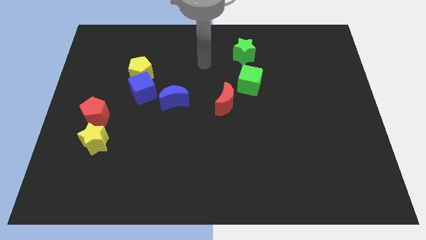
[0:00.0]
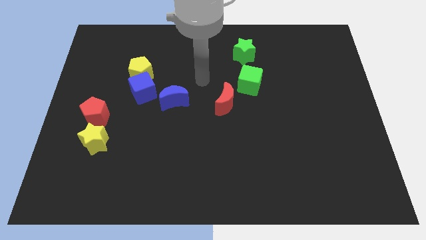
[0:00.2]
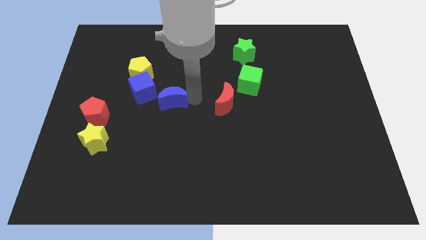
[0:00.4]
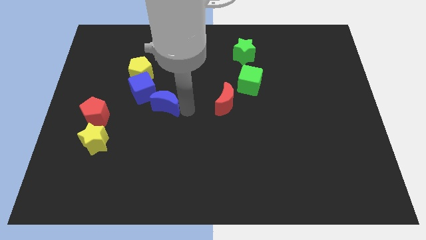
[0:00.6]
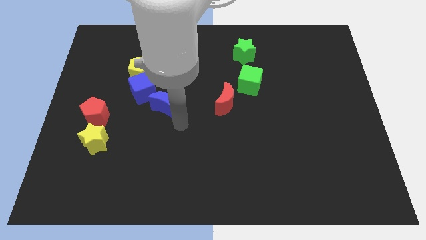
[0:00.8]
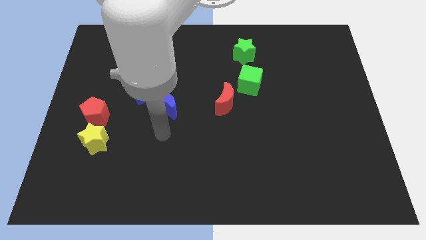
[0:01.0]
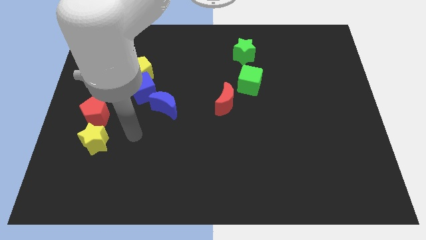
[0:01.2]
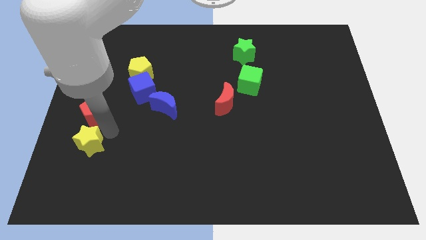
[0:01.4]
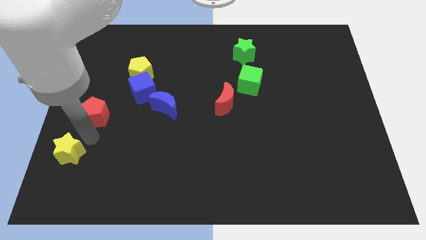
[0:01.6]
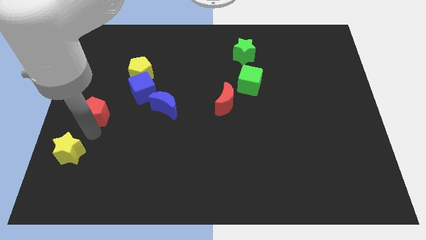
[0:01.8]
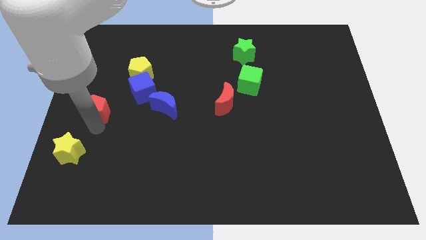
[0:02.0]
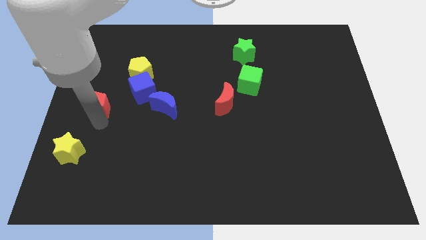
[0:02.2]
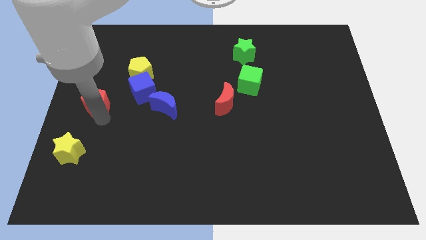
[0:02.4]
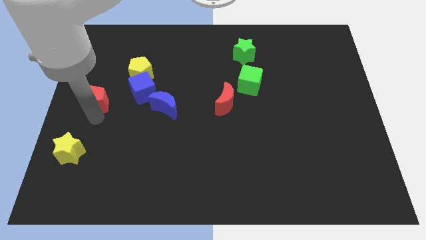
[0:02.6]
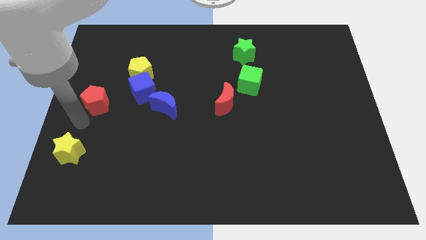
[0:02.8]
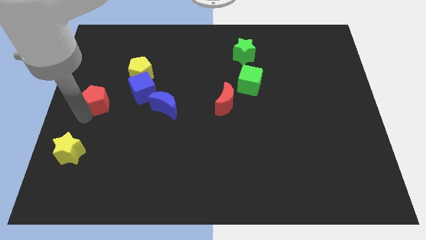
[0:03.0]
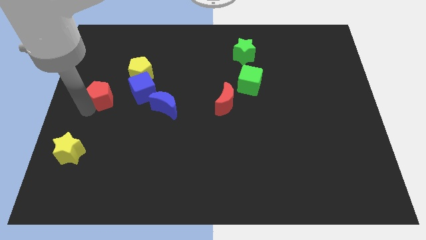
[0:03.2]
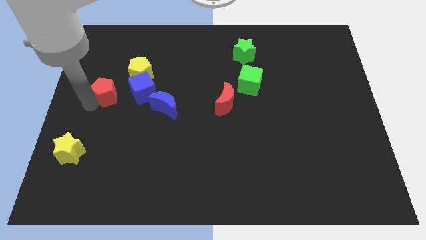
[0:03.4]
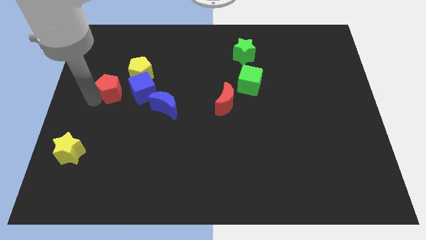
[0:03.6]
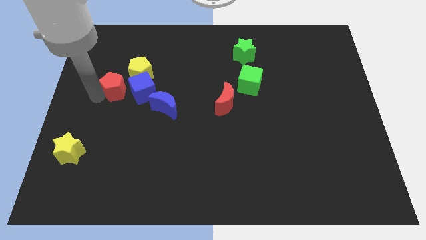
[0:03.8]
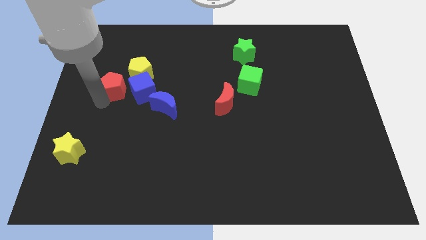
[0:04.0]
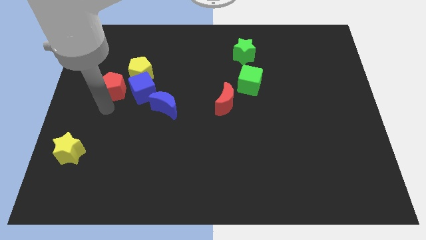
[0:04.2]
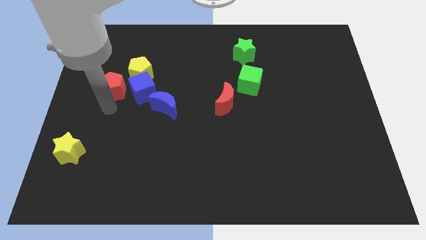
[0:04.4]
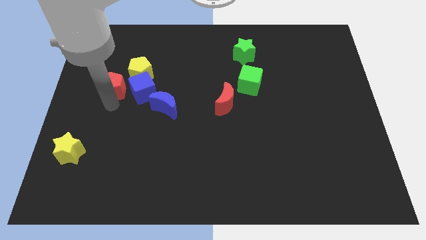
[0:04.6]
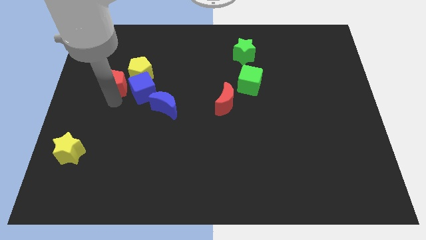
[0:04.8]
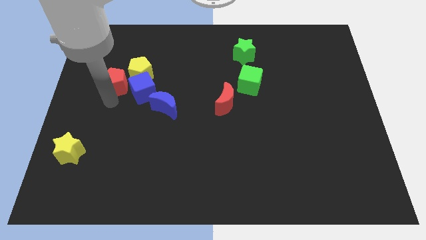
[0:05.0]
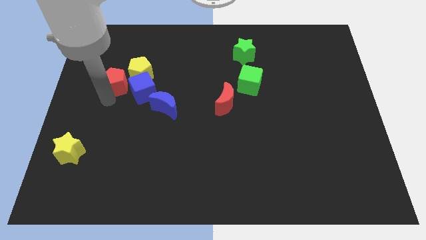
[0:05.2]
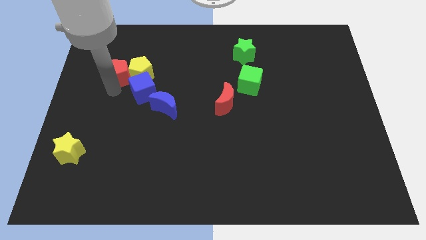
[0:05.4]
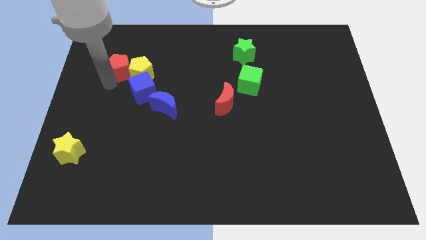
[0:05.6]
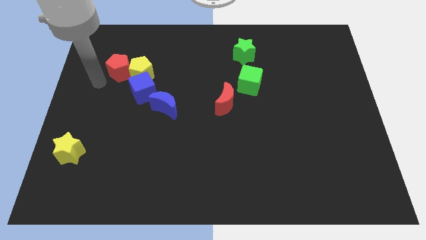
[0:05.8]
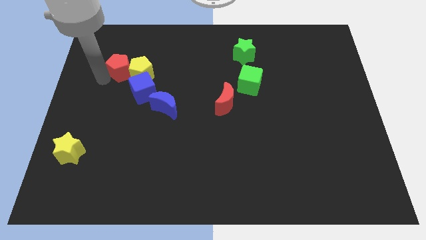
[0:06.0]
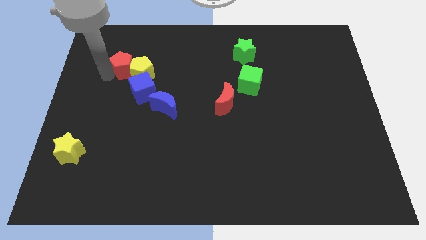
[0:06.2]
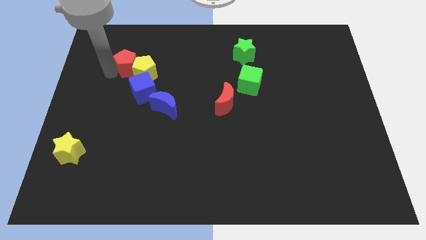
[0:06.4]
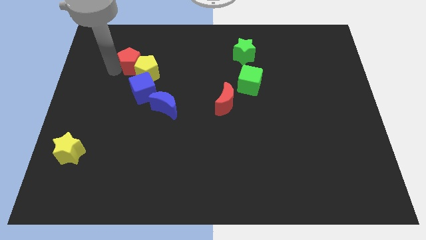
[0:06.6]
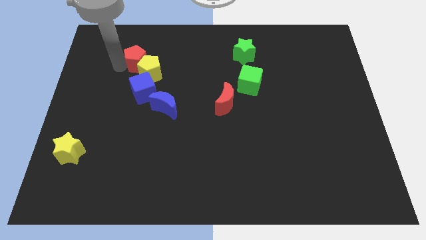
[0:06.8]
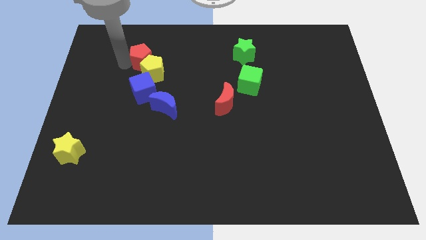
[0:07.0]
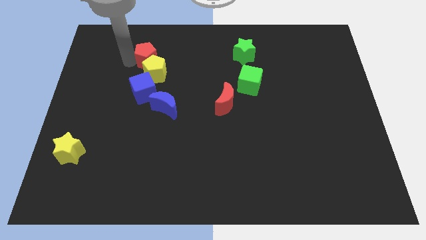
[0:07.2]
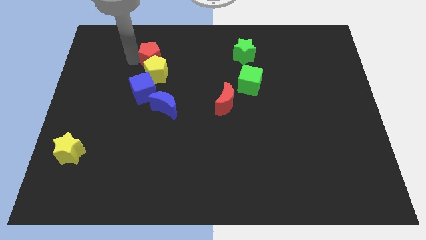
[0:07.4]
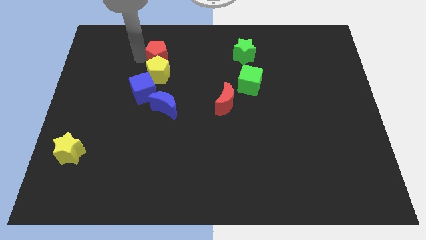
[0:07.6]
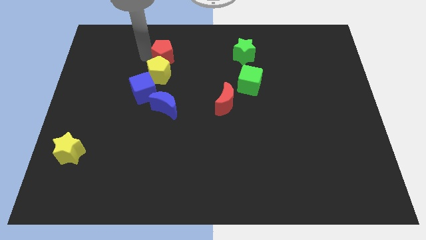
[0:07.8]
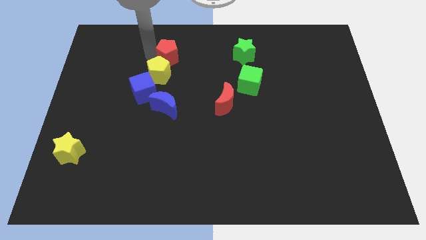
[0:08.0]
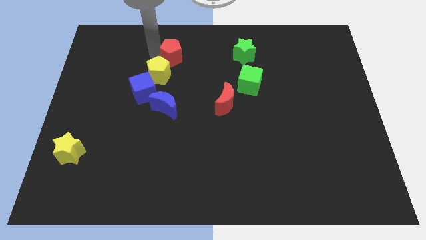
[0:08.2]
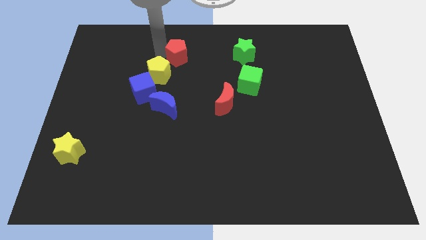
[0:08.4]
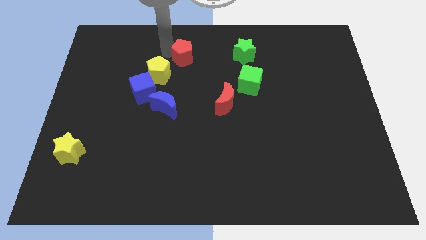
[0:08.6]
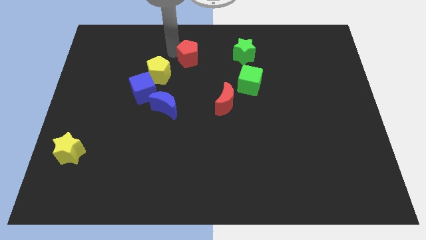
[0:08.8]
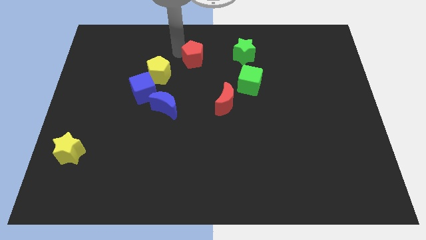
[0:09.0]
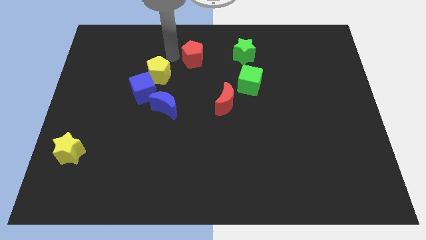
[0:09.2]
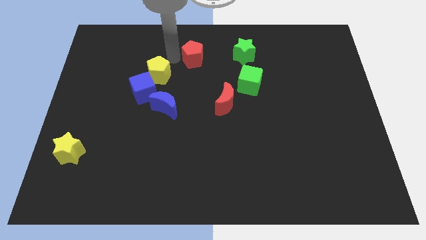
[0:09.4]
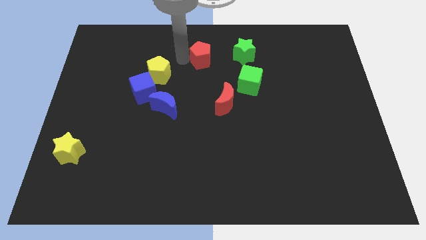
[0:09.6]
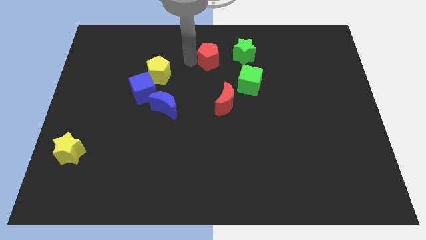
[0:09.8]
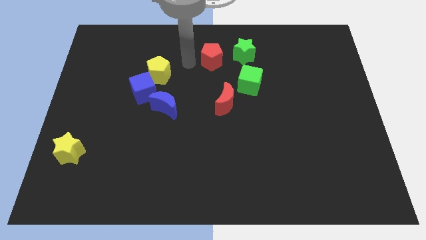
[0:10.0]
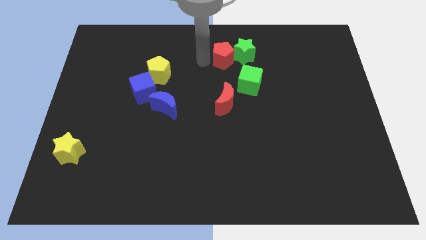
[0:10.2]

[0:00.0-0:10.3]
slide the red pentagon close to the green star

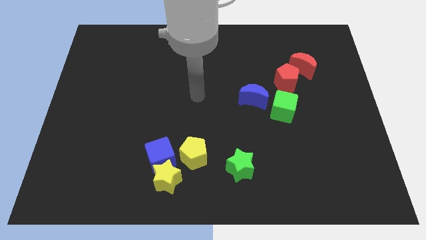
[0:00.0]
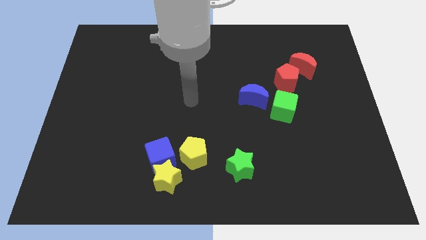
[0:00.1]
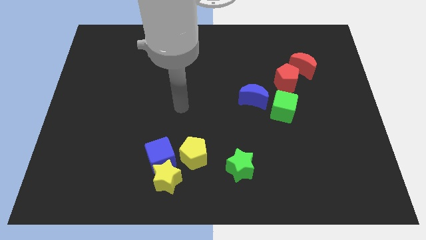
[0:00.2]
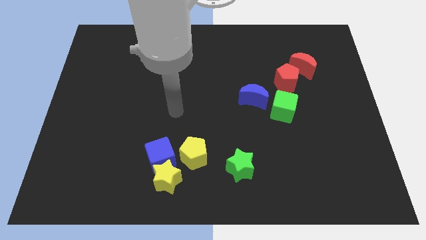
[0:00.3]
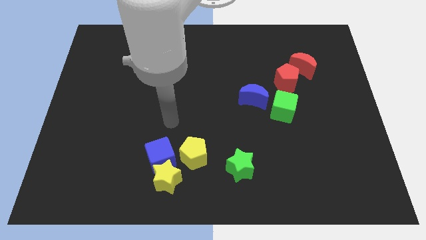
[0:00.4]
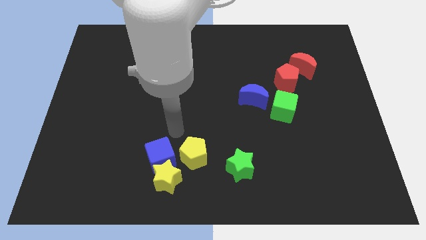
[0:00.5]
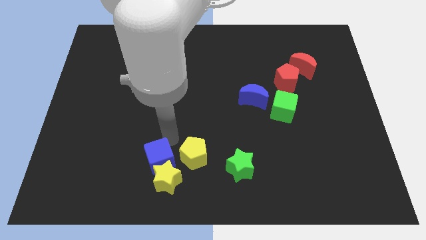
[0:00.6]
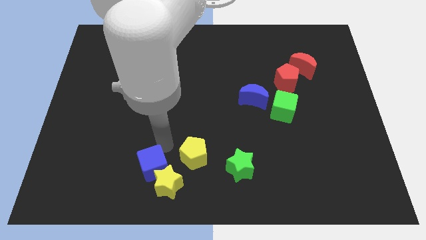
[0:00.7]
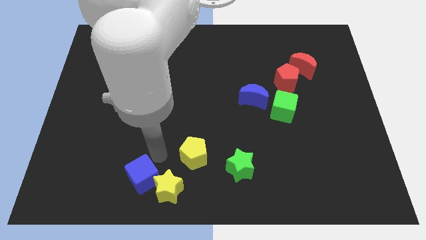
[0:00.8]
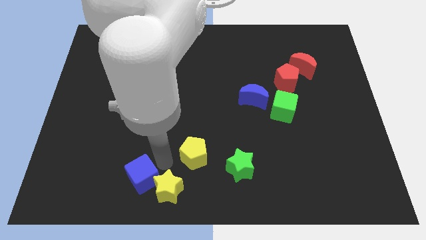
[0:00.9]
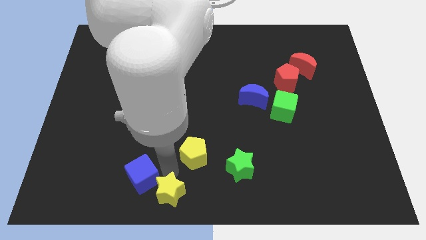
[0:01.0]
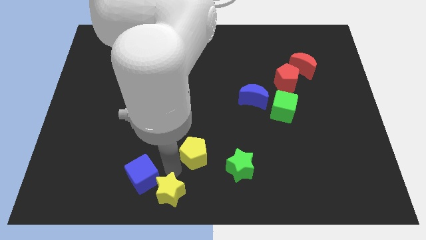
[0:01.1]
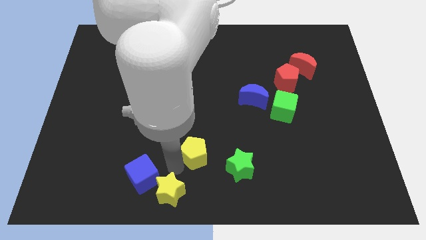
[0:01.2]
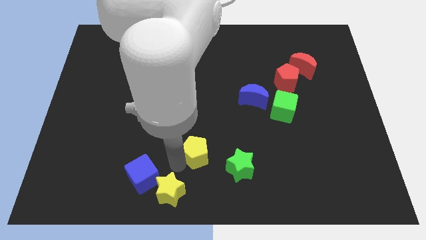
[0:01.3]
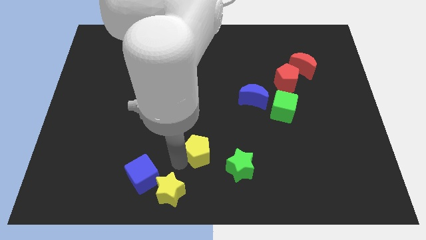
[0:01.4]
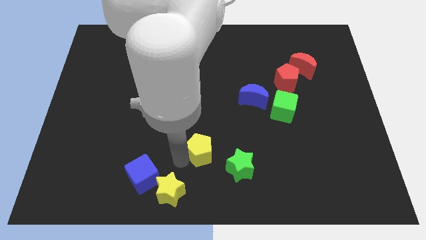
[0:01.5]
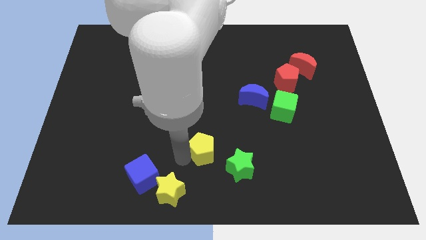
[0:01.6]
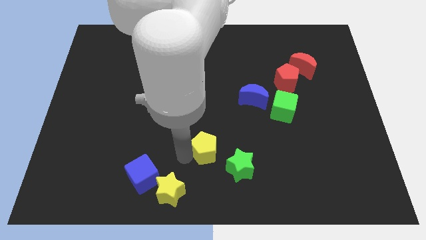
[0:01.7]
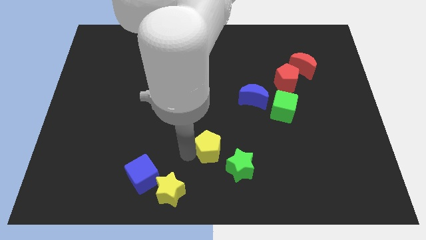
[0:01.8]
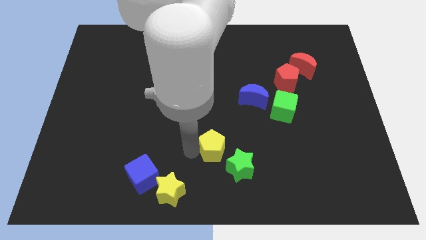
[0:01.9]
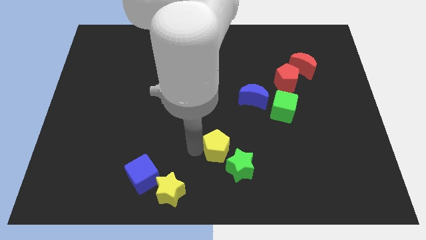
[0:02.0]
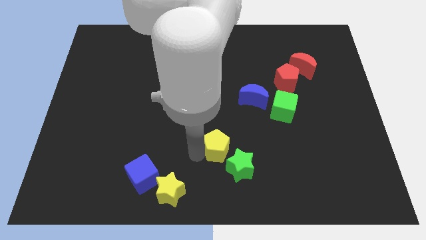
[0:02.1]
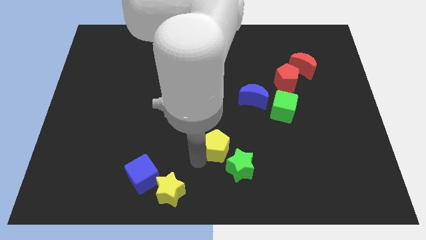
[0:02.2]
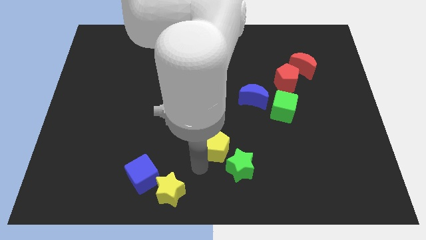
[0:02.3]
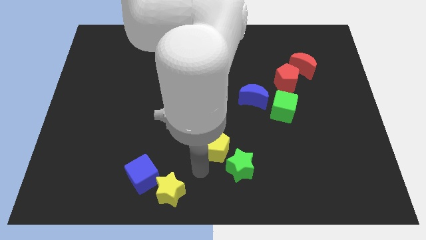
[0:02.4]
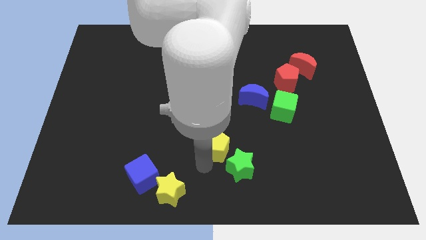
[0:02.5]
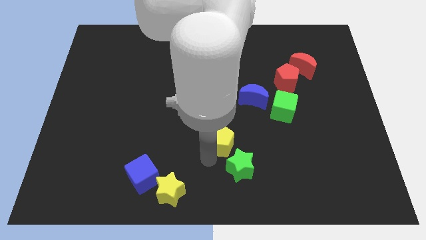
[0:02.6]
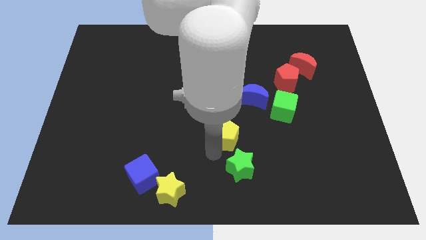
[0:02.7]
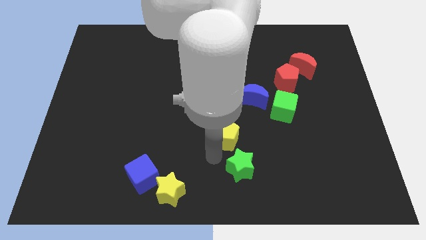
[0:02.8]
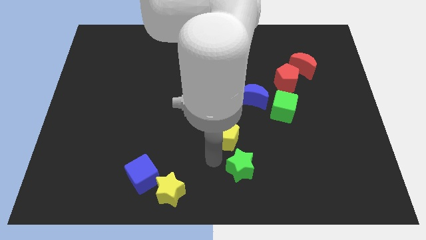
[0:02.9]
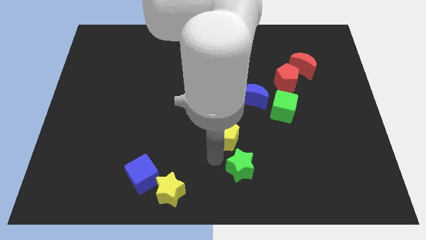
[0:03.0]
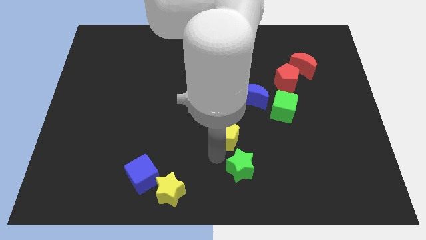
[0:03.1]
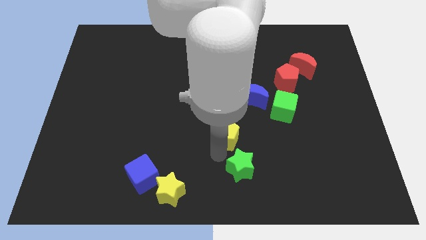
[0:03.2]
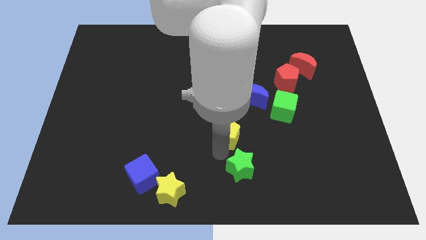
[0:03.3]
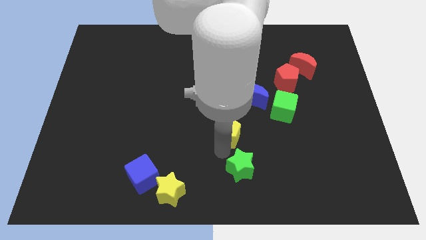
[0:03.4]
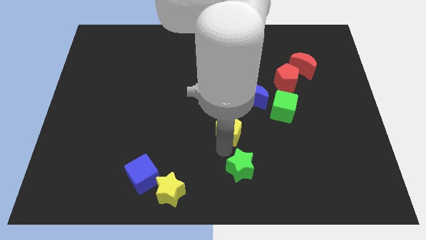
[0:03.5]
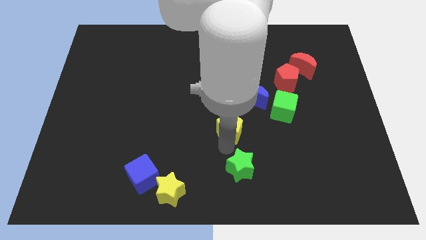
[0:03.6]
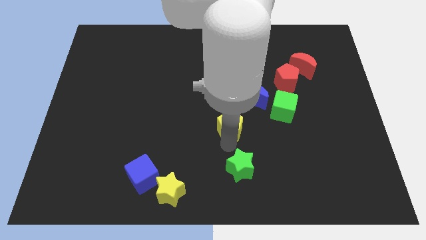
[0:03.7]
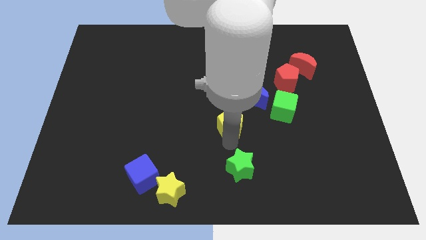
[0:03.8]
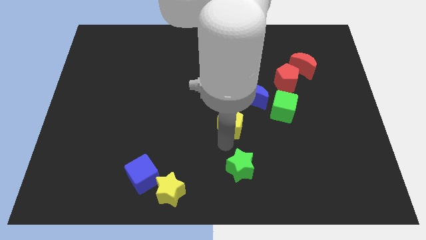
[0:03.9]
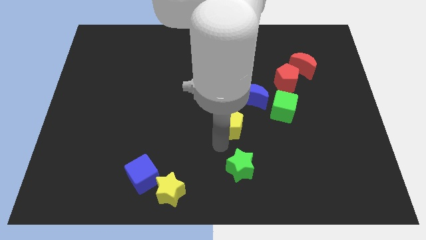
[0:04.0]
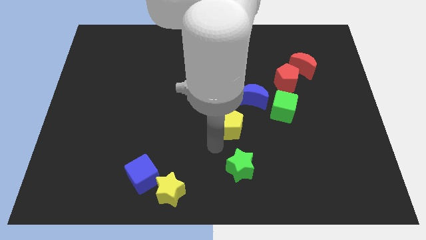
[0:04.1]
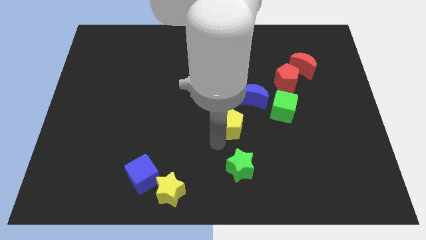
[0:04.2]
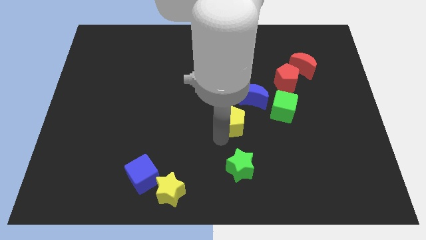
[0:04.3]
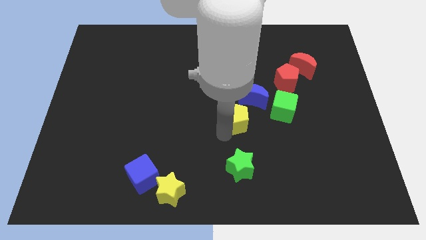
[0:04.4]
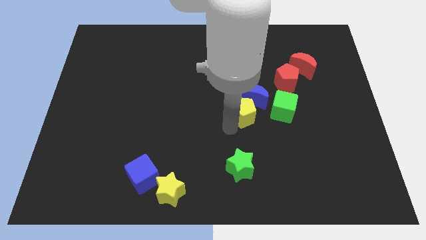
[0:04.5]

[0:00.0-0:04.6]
slide the yellow pentagon to the blue moon
